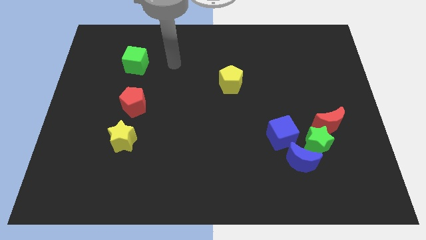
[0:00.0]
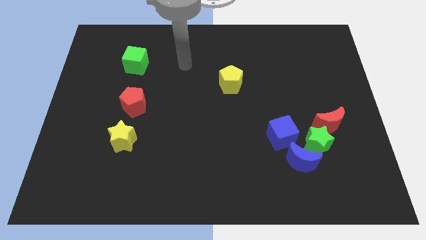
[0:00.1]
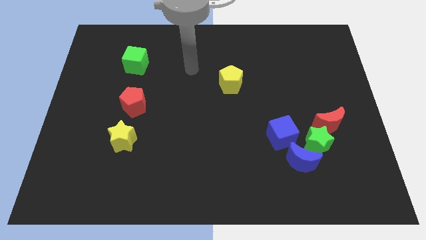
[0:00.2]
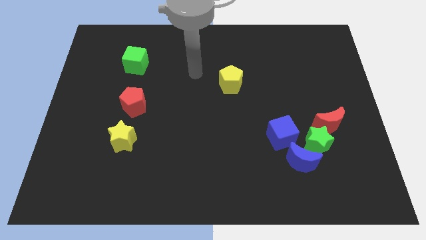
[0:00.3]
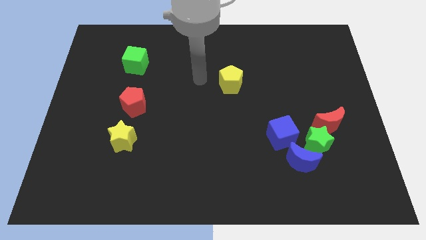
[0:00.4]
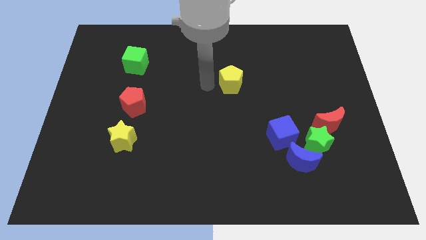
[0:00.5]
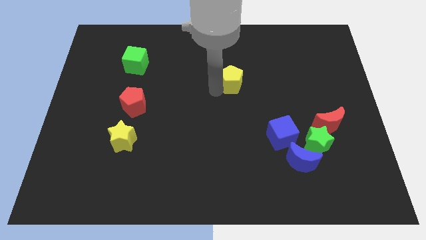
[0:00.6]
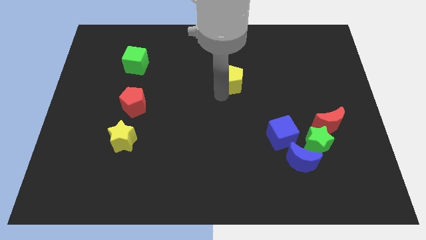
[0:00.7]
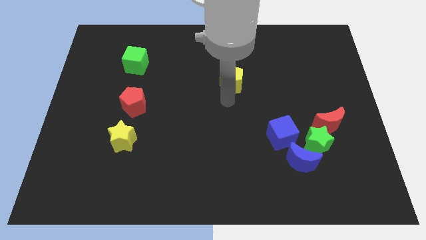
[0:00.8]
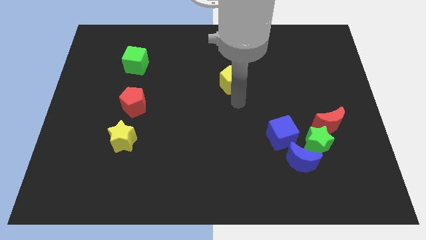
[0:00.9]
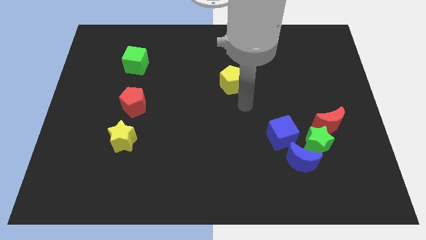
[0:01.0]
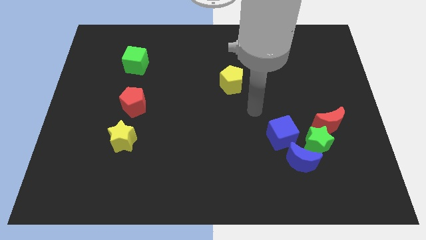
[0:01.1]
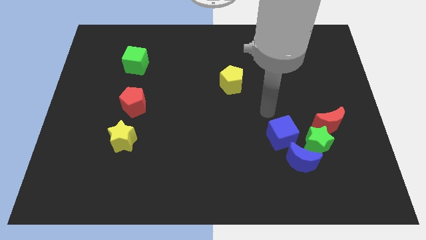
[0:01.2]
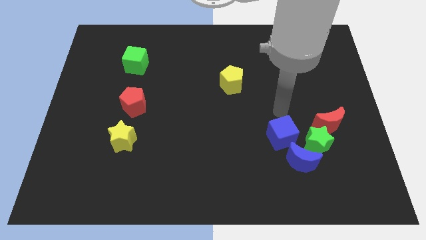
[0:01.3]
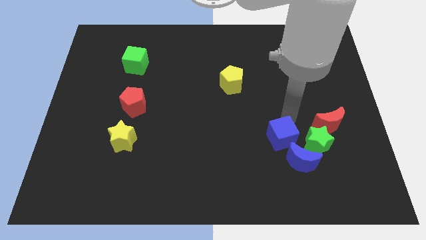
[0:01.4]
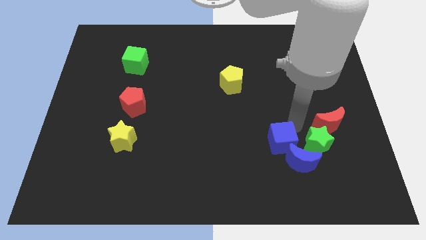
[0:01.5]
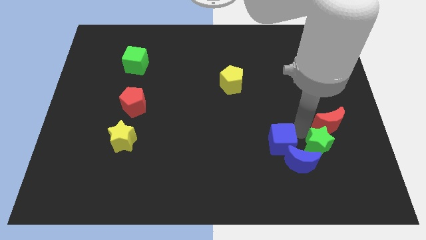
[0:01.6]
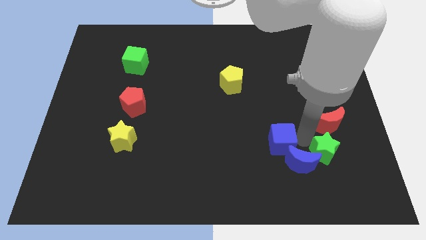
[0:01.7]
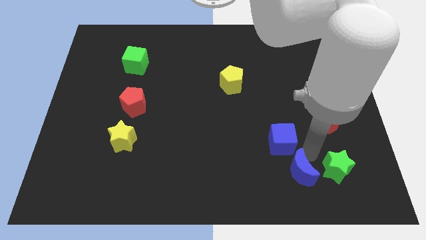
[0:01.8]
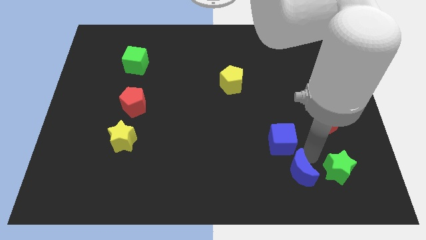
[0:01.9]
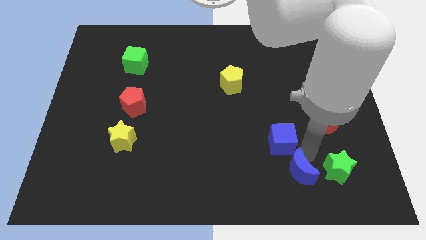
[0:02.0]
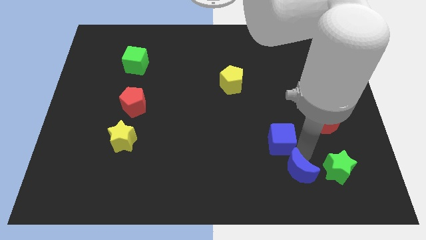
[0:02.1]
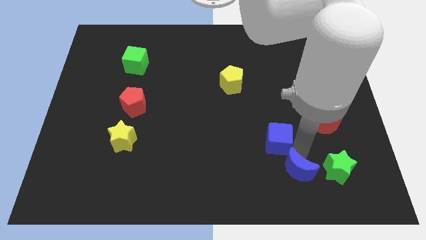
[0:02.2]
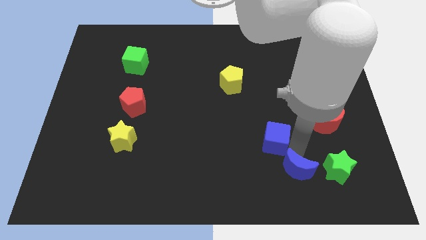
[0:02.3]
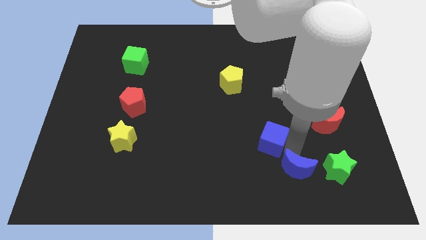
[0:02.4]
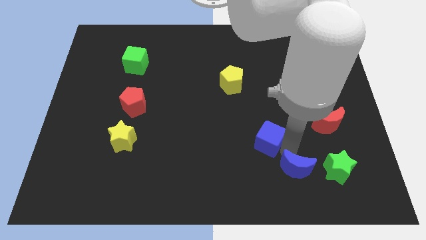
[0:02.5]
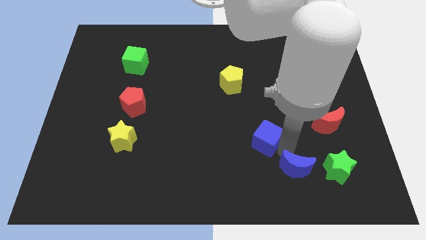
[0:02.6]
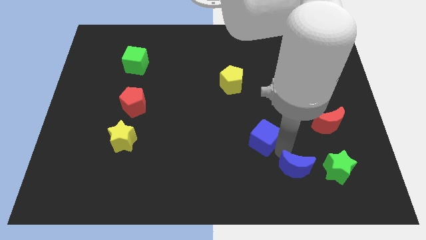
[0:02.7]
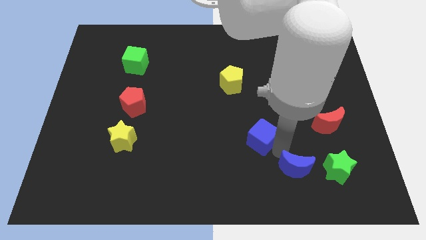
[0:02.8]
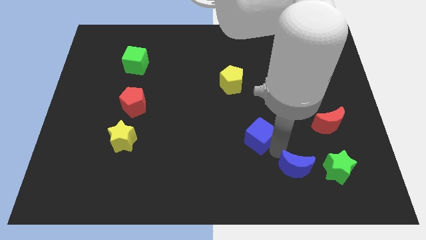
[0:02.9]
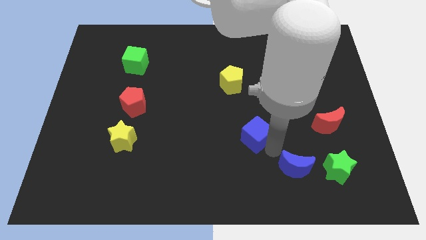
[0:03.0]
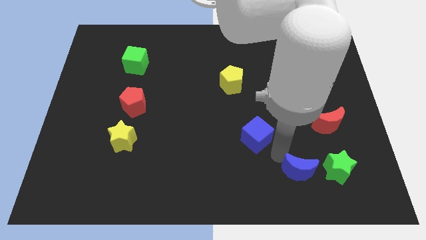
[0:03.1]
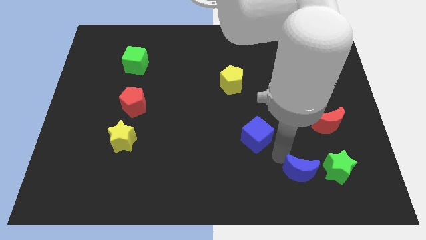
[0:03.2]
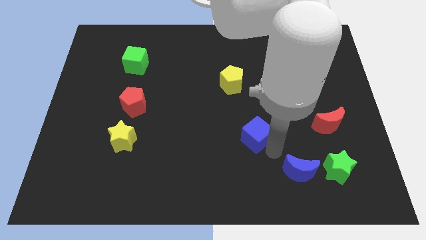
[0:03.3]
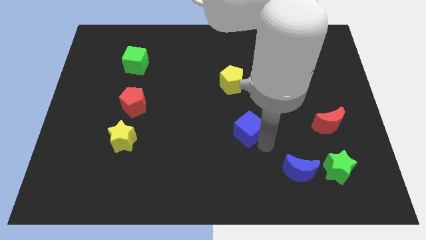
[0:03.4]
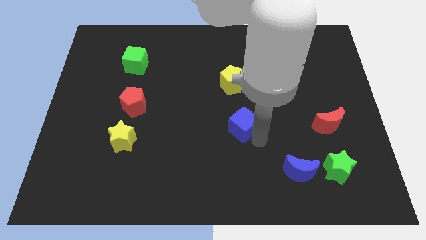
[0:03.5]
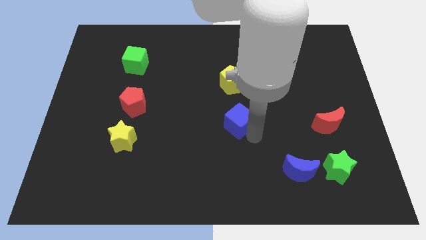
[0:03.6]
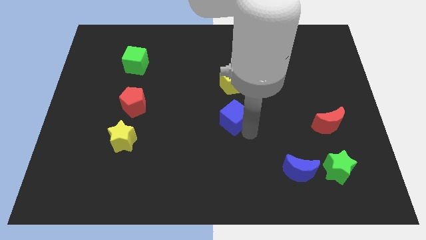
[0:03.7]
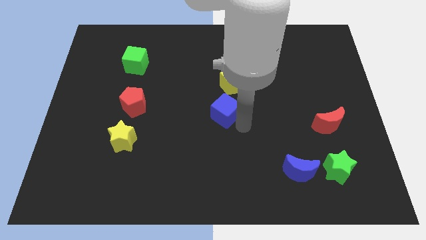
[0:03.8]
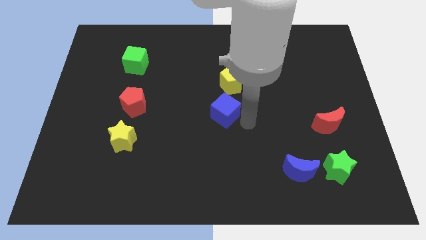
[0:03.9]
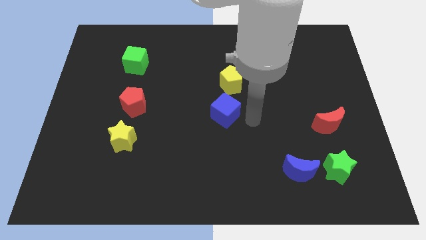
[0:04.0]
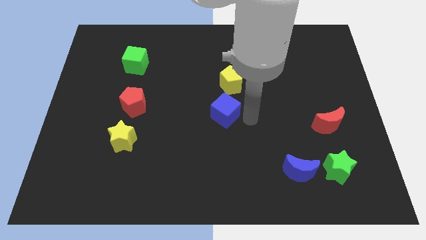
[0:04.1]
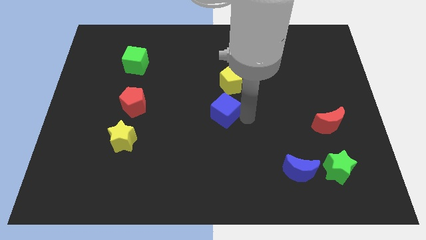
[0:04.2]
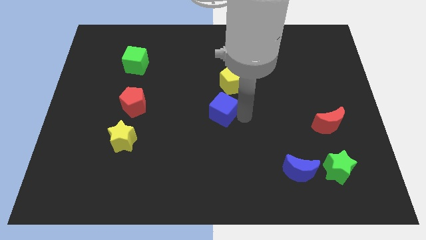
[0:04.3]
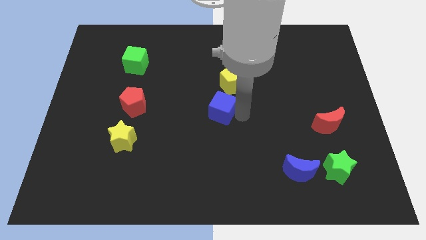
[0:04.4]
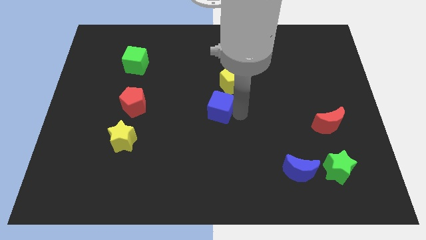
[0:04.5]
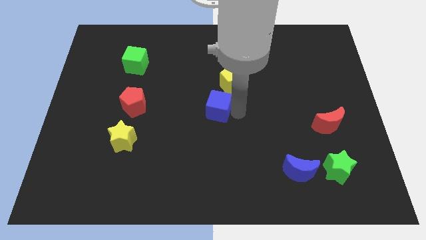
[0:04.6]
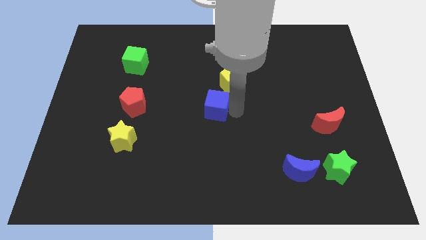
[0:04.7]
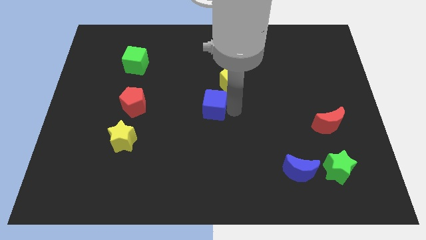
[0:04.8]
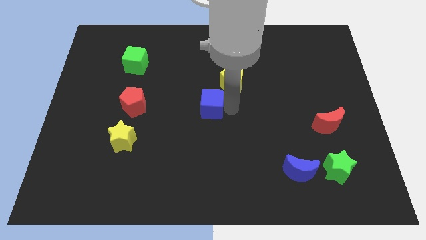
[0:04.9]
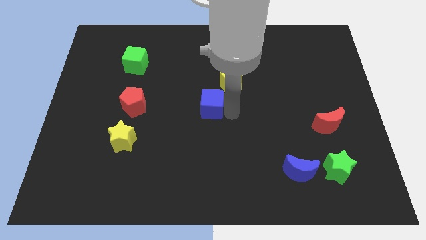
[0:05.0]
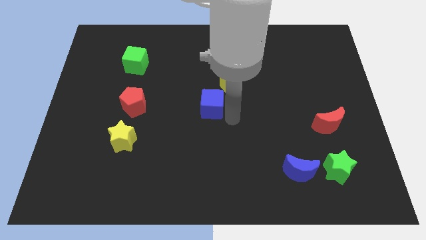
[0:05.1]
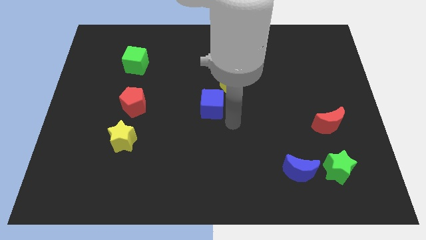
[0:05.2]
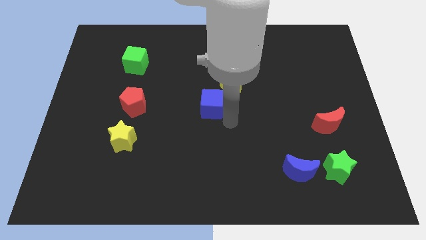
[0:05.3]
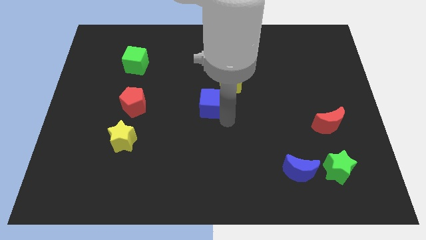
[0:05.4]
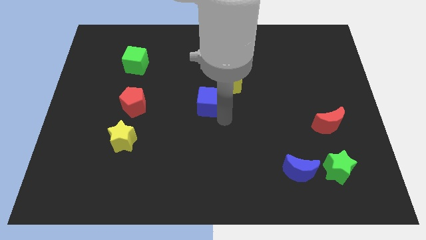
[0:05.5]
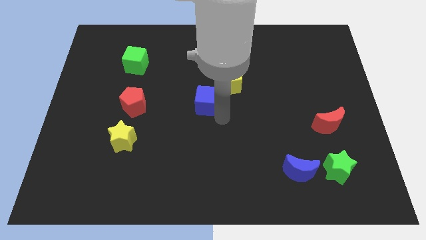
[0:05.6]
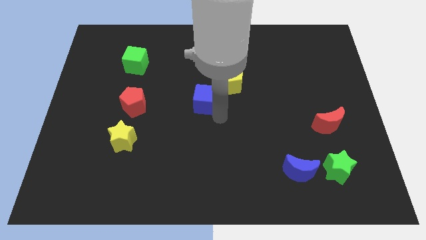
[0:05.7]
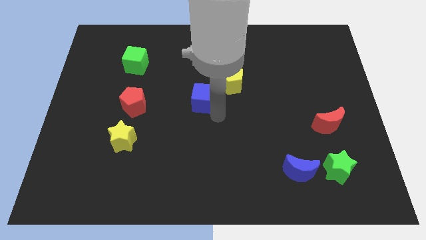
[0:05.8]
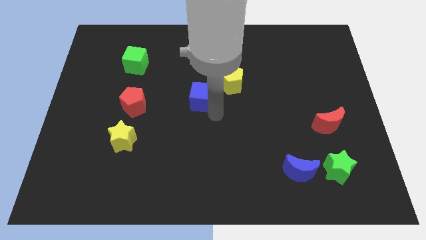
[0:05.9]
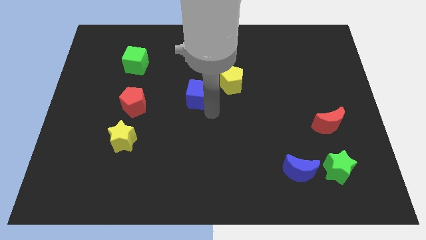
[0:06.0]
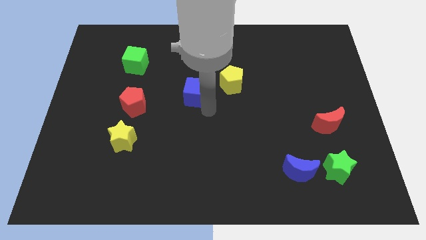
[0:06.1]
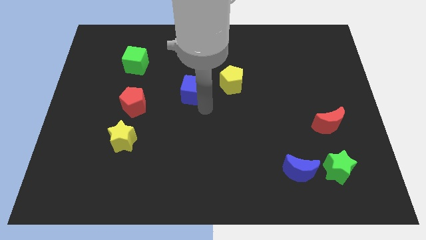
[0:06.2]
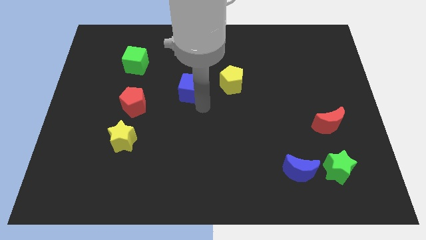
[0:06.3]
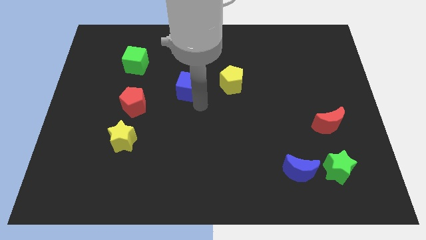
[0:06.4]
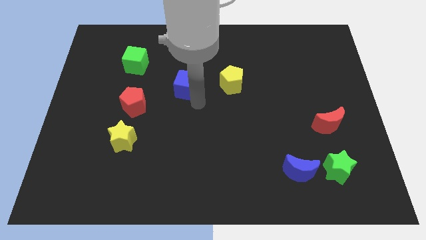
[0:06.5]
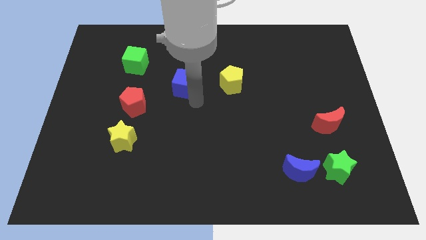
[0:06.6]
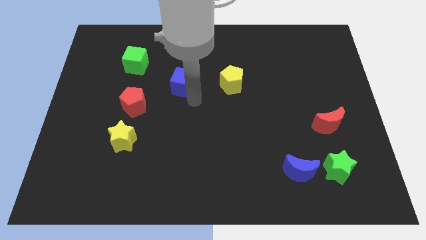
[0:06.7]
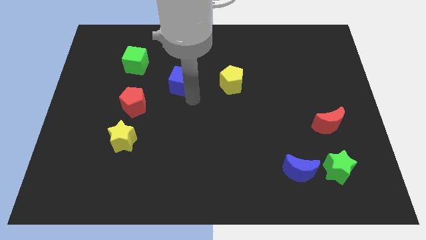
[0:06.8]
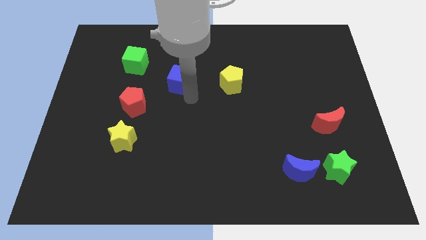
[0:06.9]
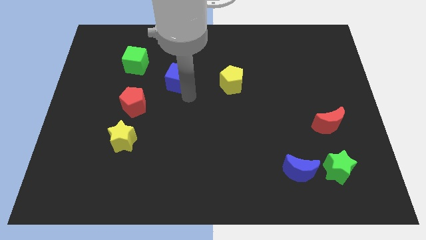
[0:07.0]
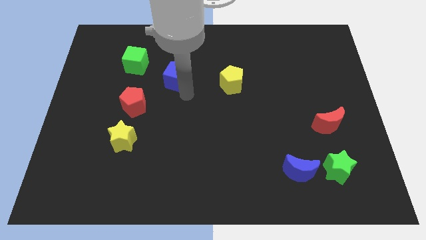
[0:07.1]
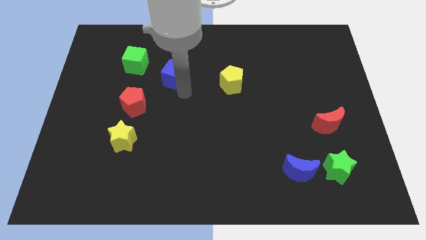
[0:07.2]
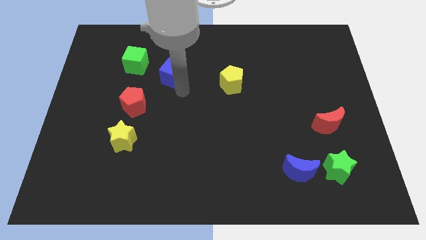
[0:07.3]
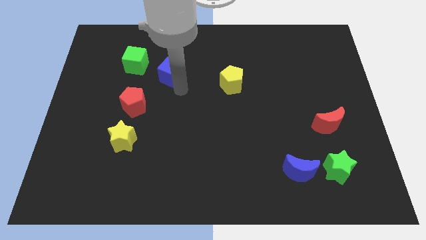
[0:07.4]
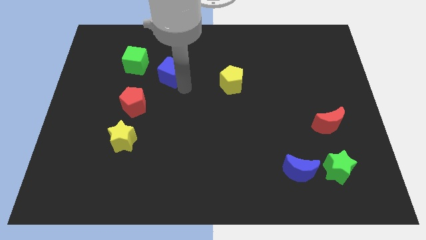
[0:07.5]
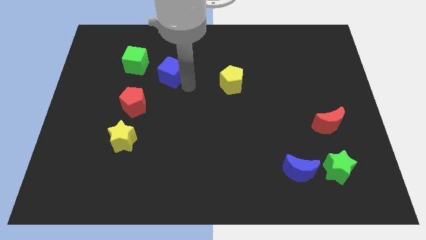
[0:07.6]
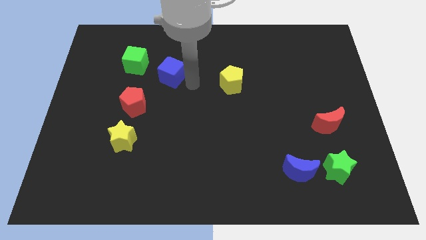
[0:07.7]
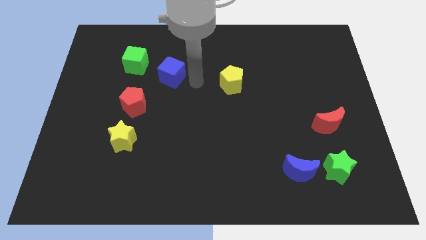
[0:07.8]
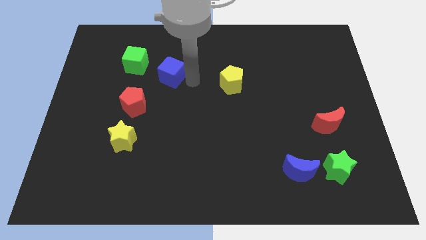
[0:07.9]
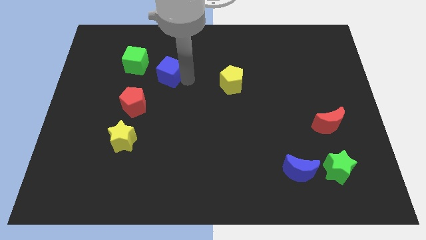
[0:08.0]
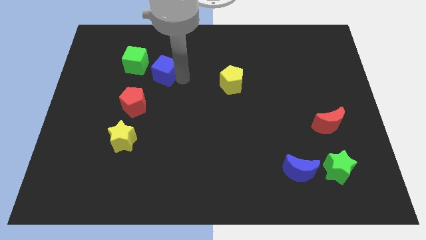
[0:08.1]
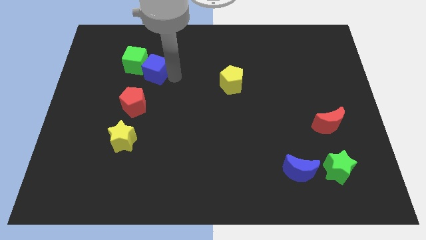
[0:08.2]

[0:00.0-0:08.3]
push the blue cube to the green cube
